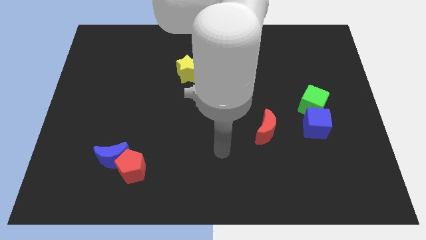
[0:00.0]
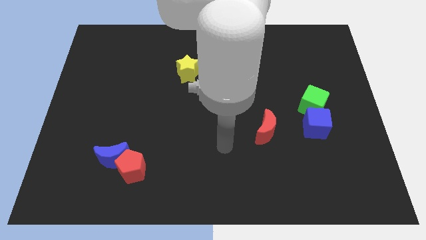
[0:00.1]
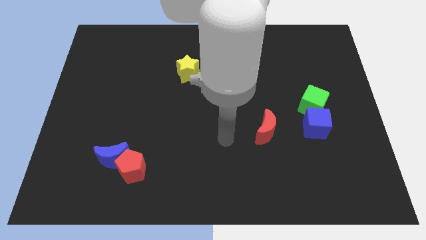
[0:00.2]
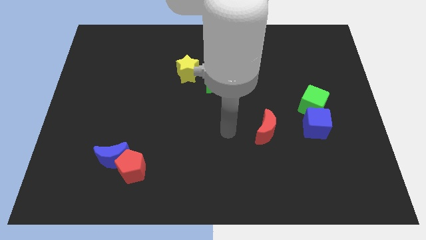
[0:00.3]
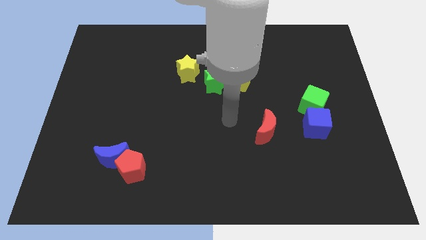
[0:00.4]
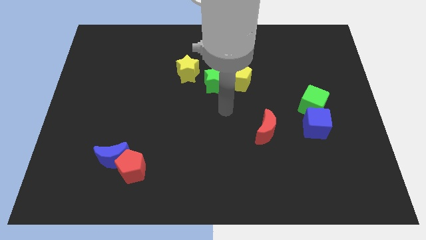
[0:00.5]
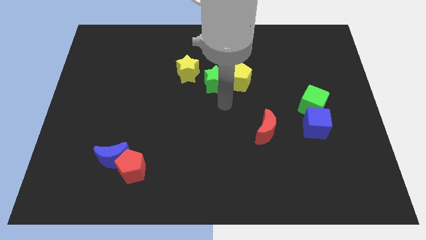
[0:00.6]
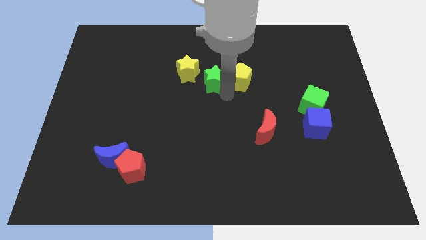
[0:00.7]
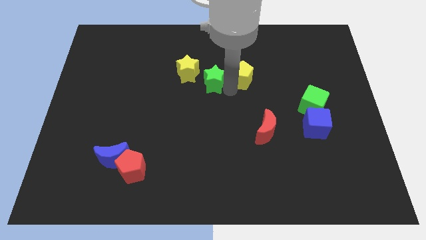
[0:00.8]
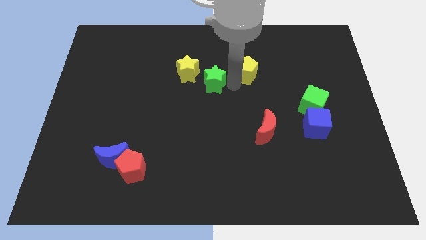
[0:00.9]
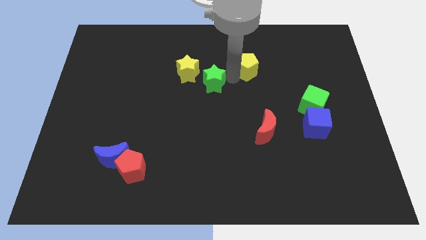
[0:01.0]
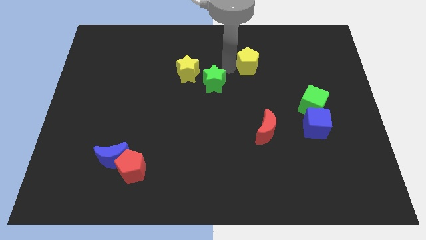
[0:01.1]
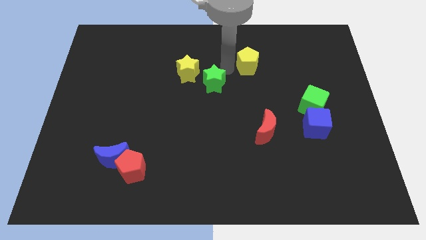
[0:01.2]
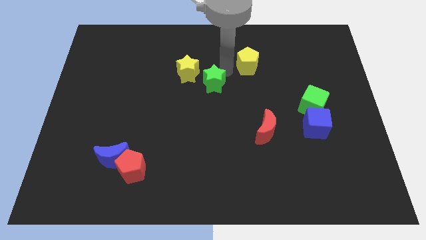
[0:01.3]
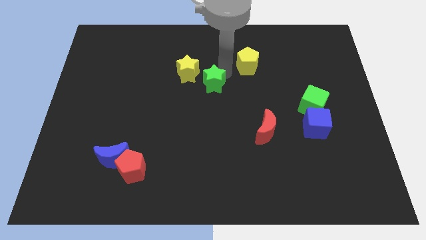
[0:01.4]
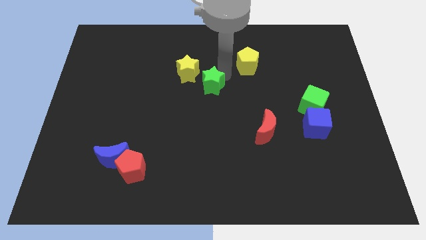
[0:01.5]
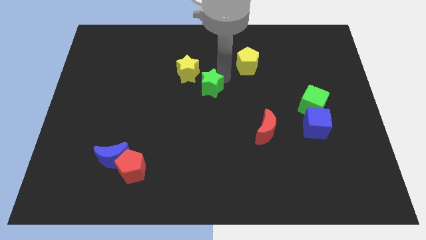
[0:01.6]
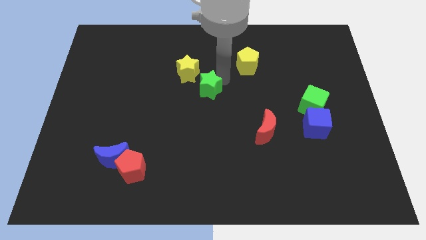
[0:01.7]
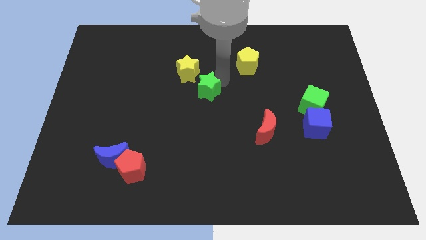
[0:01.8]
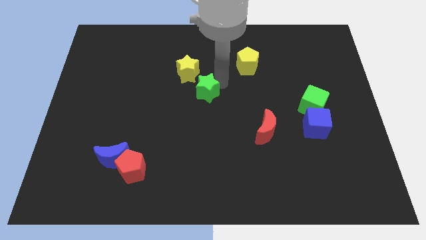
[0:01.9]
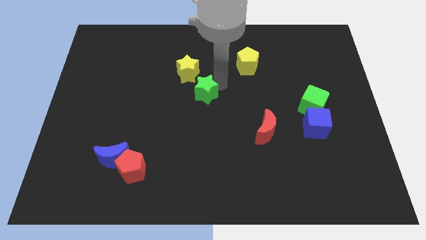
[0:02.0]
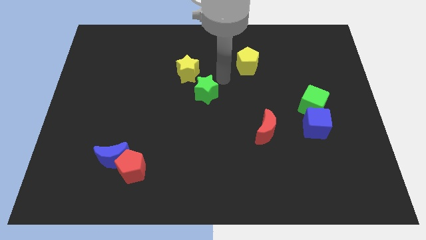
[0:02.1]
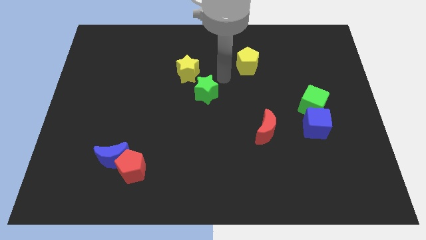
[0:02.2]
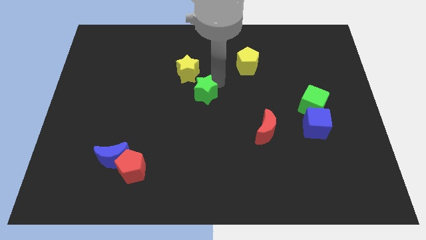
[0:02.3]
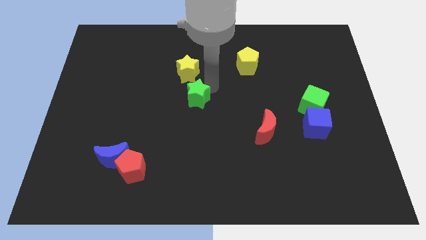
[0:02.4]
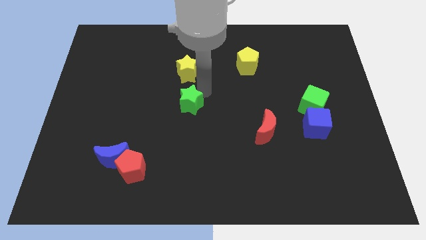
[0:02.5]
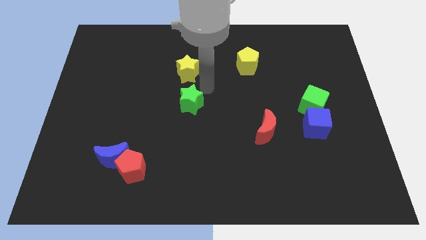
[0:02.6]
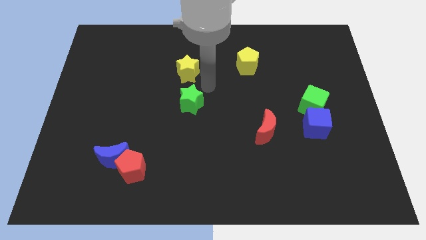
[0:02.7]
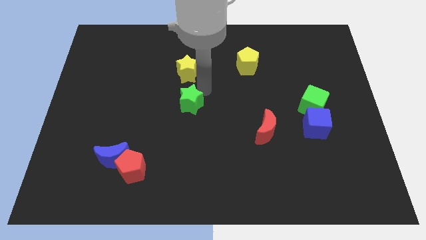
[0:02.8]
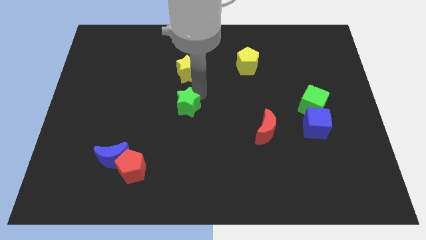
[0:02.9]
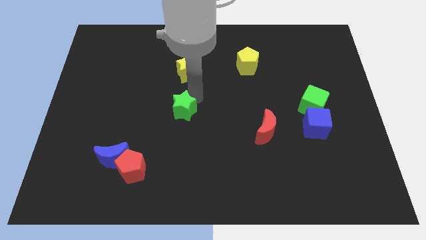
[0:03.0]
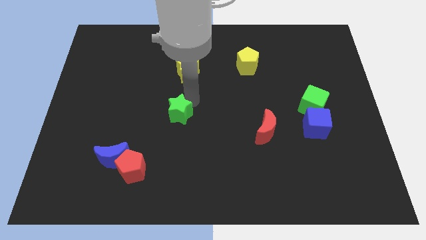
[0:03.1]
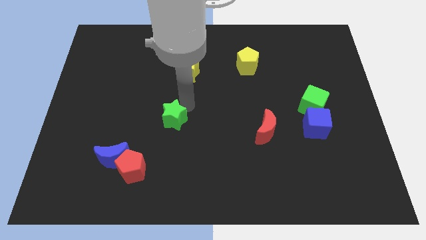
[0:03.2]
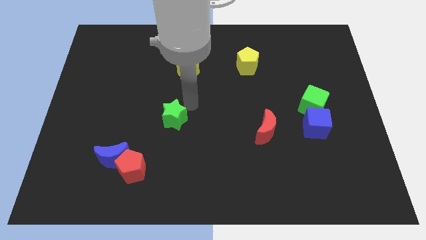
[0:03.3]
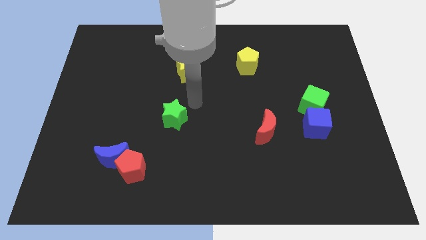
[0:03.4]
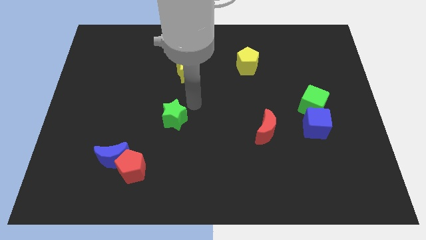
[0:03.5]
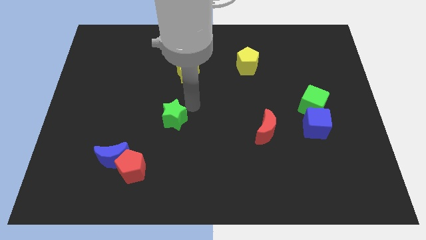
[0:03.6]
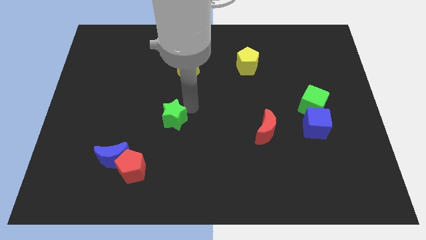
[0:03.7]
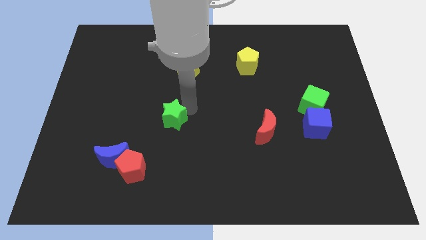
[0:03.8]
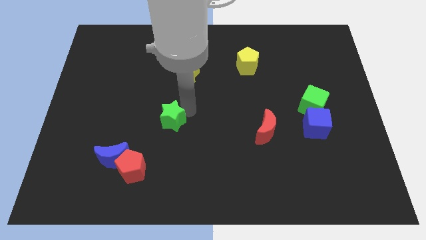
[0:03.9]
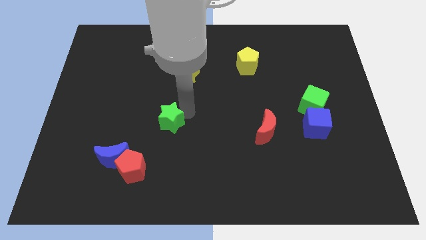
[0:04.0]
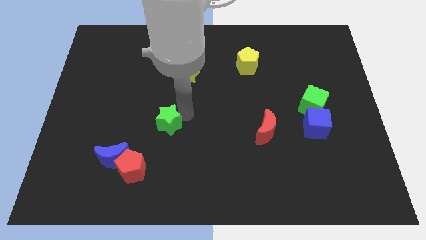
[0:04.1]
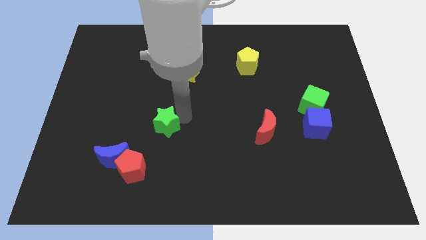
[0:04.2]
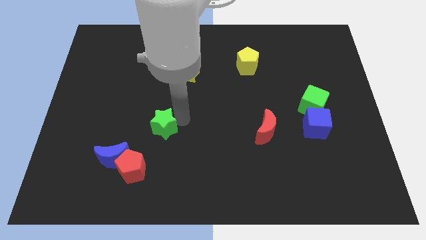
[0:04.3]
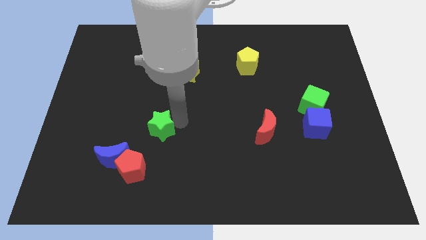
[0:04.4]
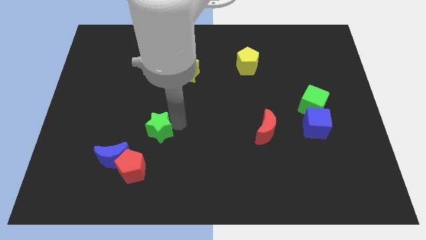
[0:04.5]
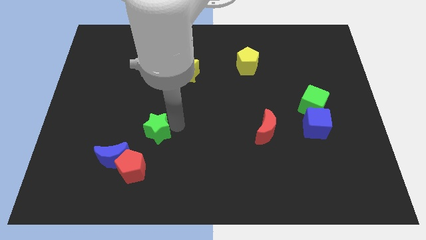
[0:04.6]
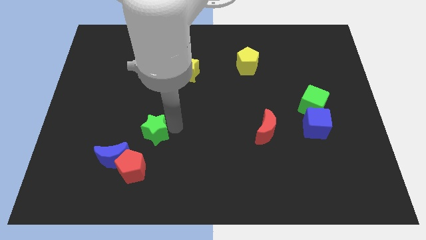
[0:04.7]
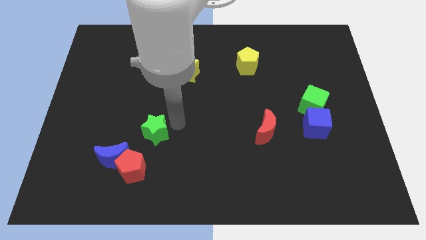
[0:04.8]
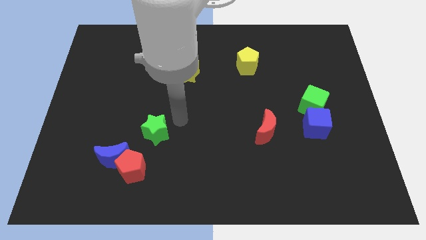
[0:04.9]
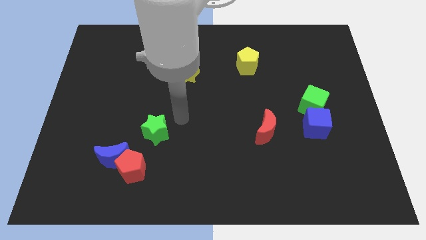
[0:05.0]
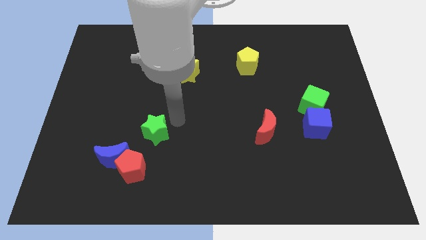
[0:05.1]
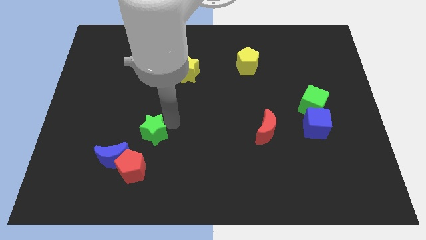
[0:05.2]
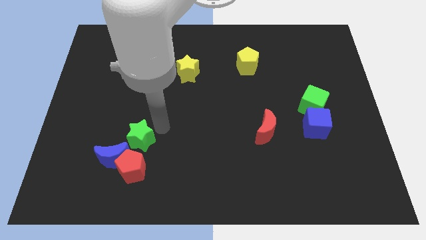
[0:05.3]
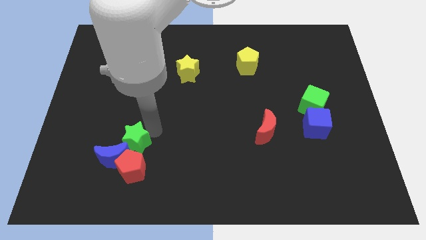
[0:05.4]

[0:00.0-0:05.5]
push the green star next to the blue moon

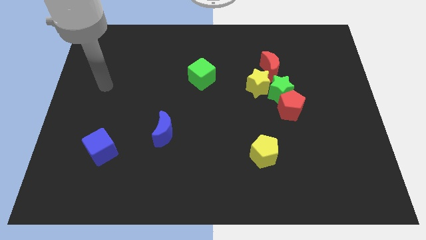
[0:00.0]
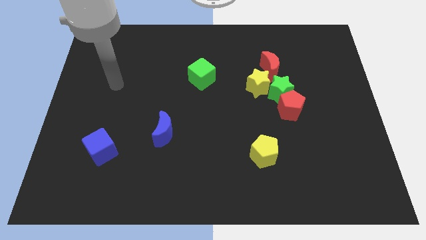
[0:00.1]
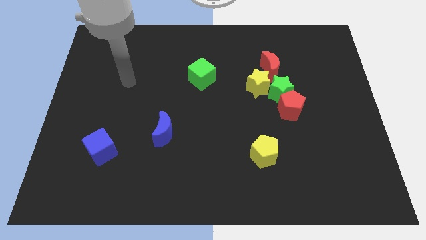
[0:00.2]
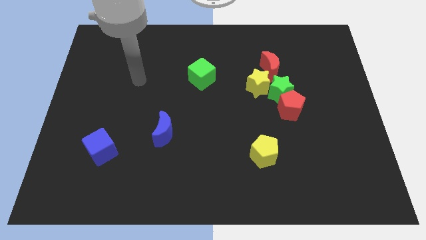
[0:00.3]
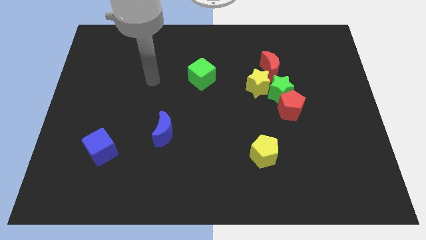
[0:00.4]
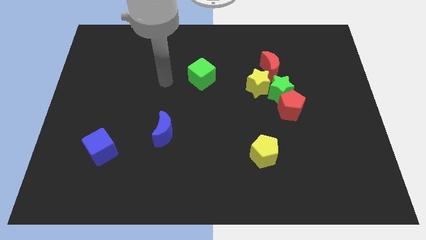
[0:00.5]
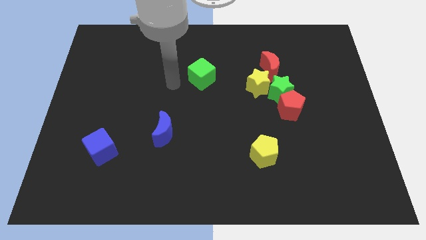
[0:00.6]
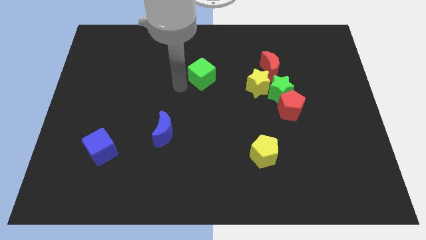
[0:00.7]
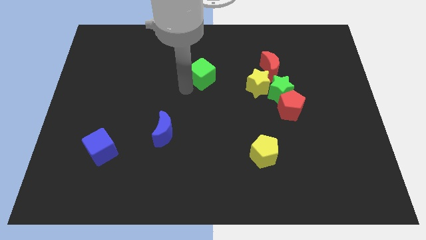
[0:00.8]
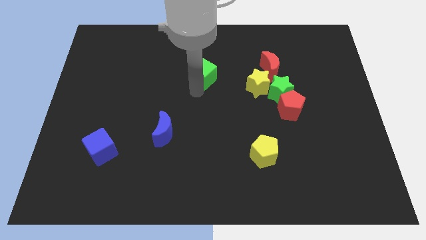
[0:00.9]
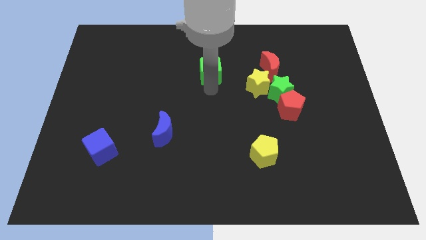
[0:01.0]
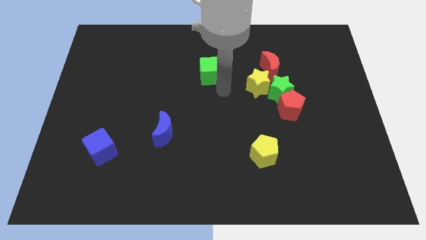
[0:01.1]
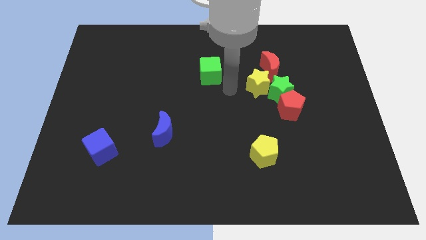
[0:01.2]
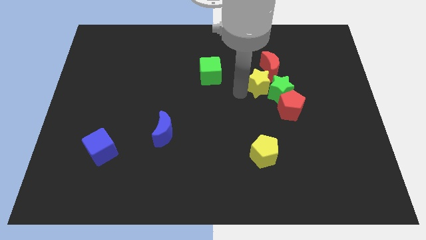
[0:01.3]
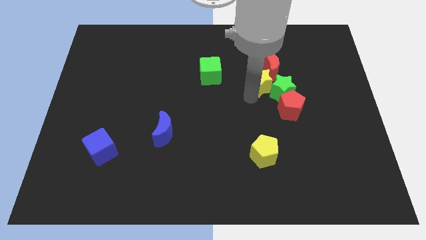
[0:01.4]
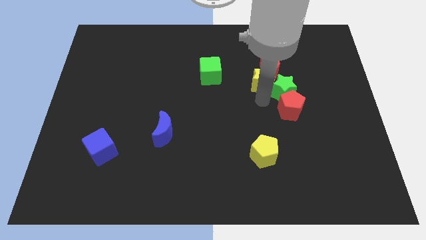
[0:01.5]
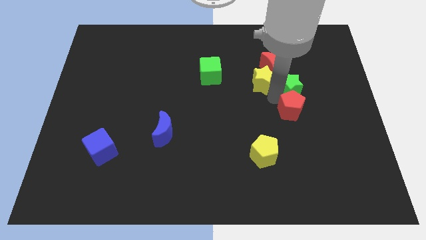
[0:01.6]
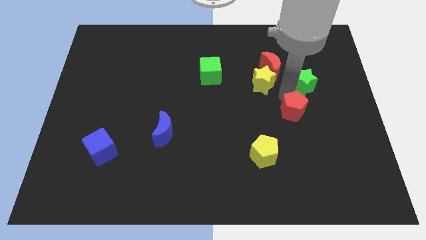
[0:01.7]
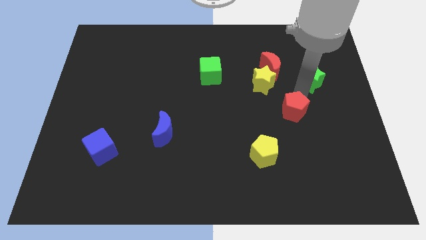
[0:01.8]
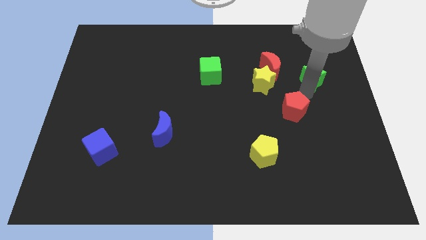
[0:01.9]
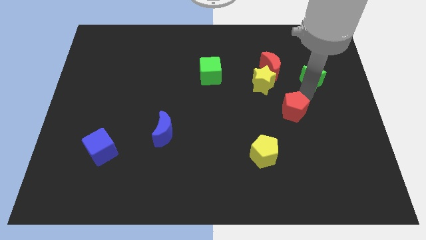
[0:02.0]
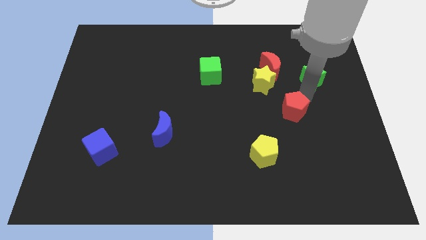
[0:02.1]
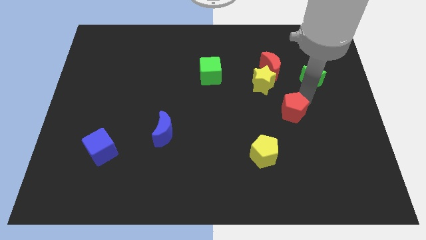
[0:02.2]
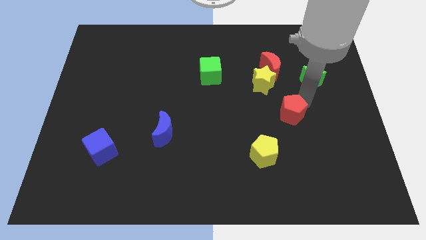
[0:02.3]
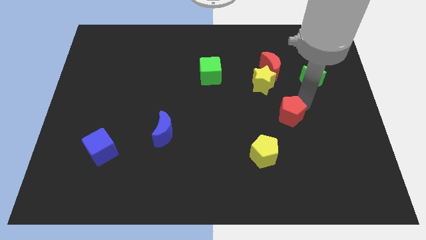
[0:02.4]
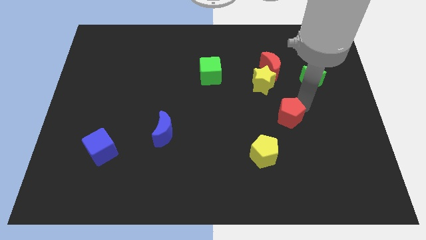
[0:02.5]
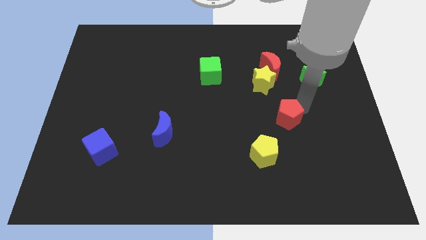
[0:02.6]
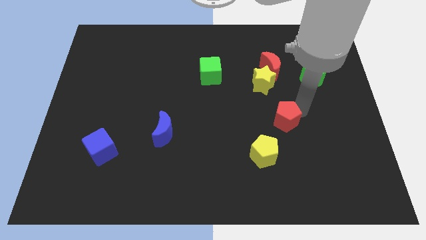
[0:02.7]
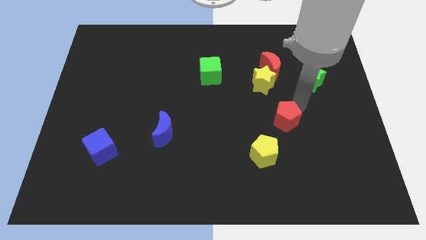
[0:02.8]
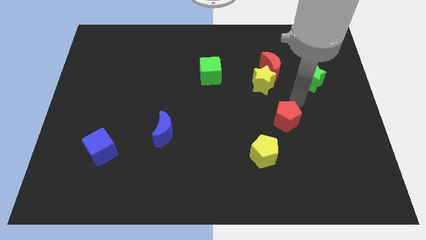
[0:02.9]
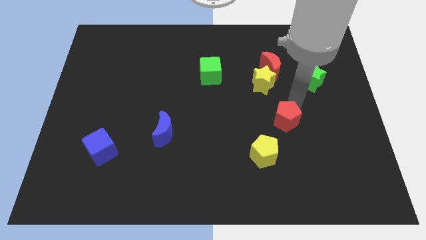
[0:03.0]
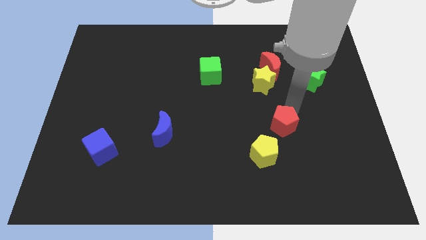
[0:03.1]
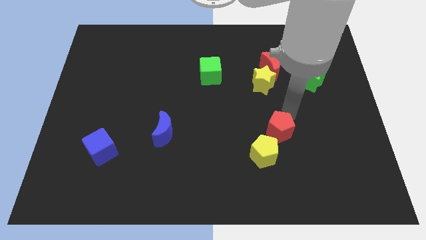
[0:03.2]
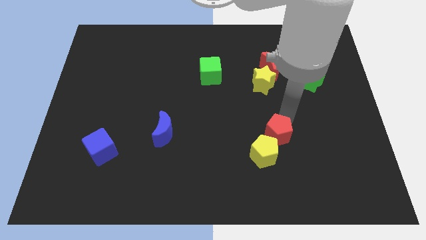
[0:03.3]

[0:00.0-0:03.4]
slide the red pentagon next to the yellow pentagon
